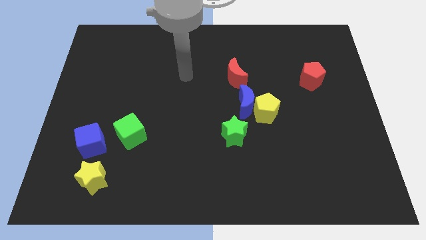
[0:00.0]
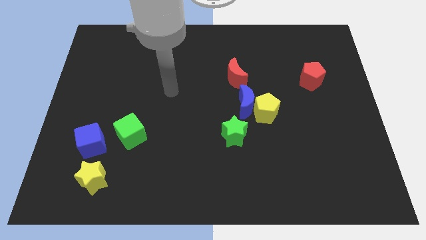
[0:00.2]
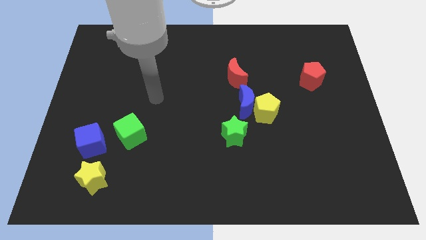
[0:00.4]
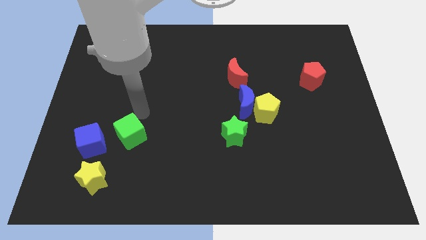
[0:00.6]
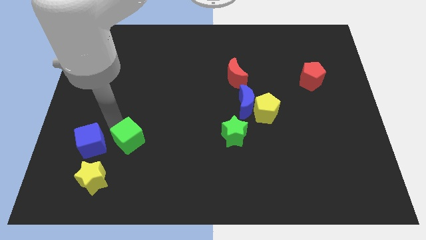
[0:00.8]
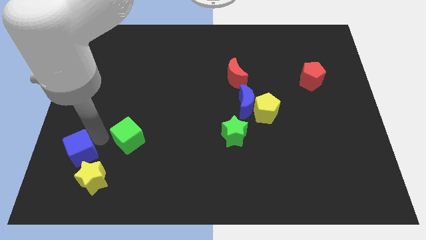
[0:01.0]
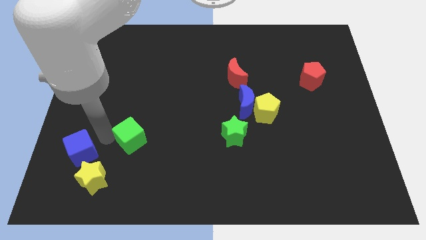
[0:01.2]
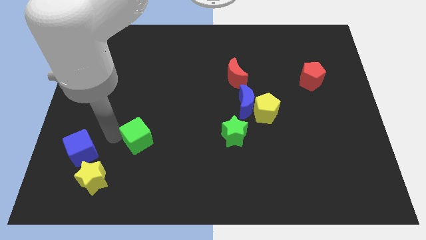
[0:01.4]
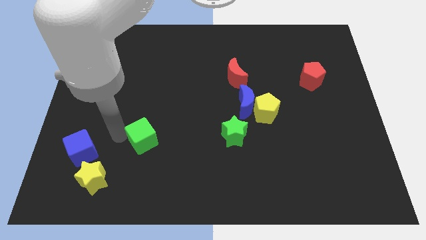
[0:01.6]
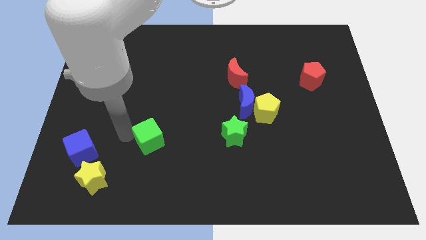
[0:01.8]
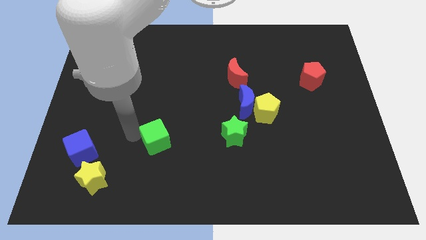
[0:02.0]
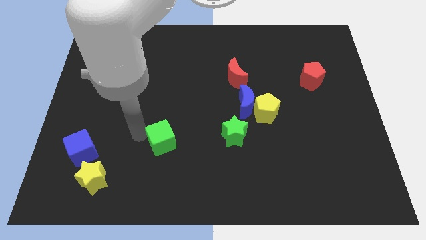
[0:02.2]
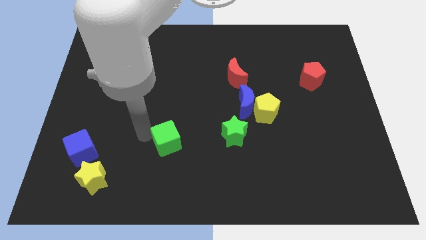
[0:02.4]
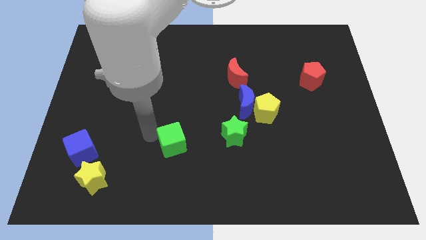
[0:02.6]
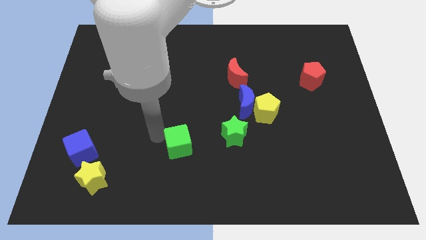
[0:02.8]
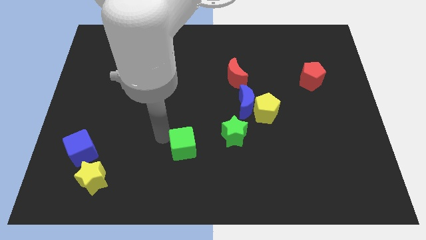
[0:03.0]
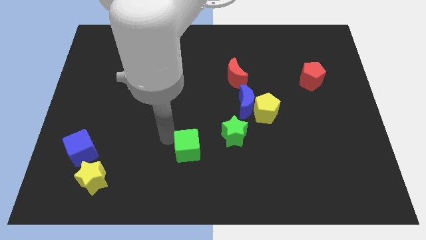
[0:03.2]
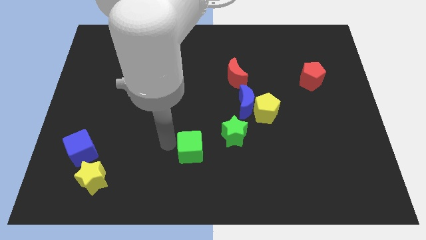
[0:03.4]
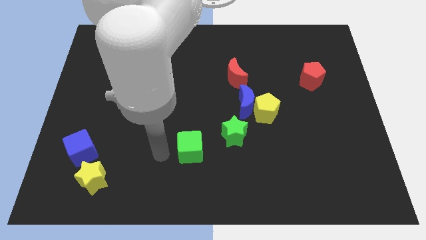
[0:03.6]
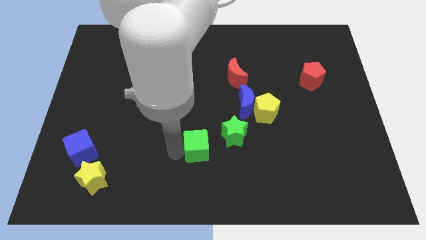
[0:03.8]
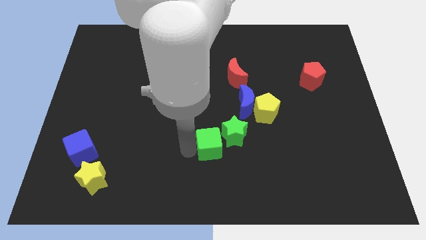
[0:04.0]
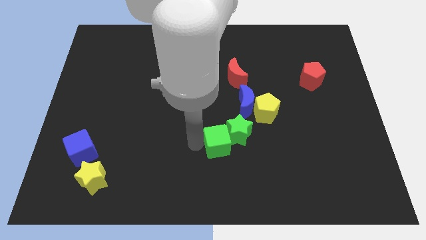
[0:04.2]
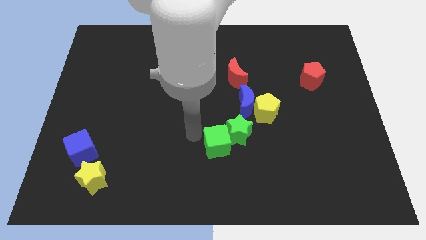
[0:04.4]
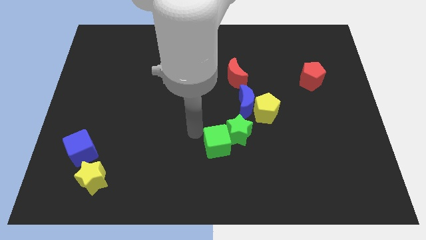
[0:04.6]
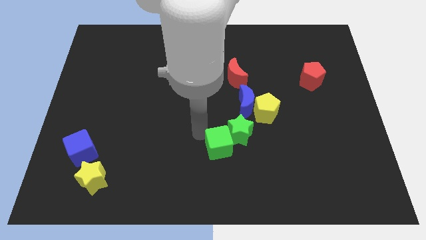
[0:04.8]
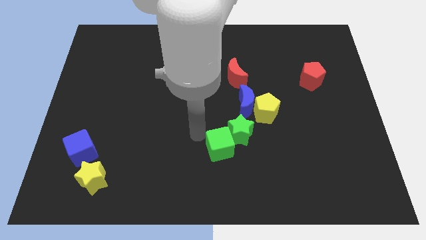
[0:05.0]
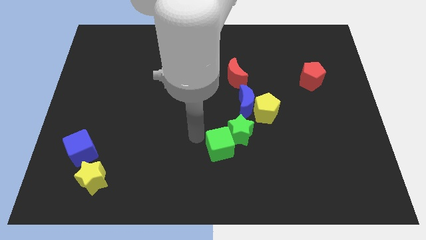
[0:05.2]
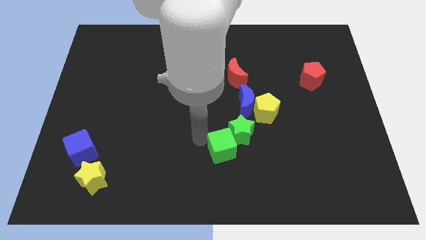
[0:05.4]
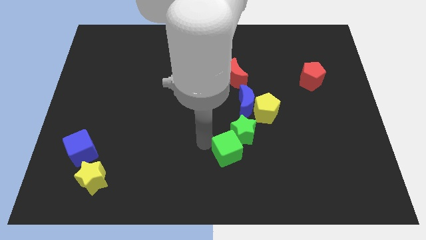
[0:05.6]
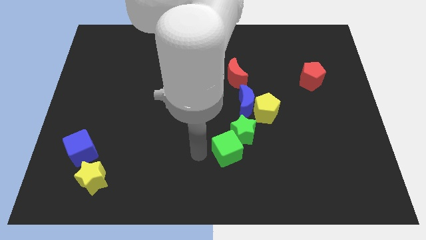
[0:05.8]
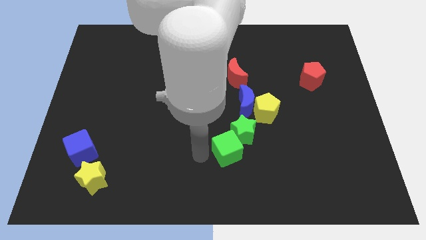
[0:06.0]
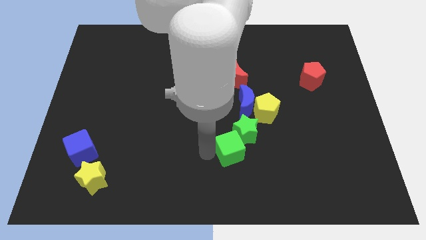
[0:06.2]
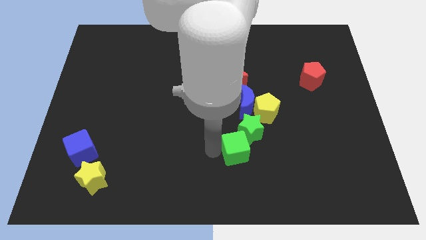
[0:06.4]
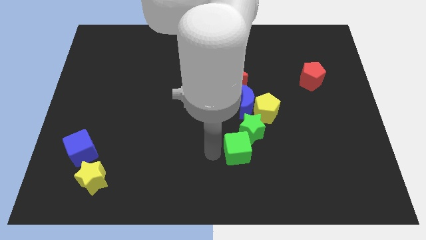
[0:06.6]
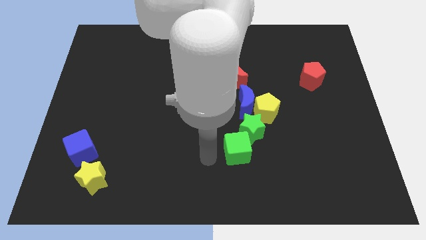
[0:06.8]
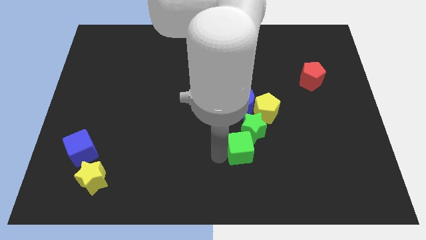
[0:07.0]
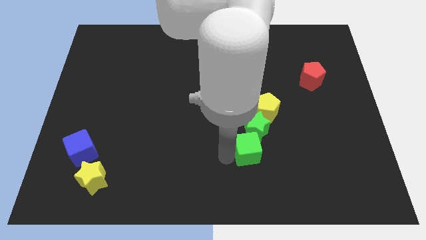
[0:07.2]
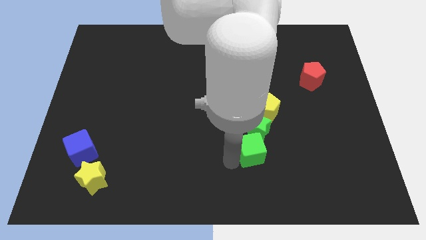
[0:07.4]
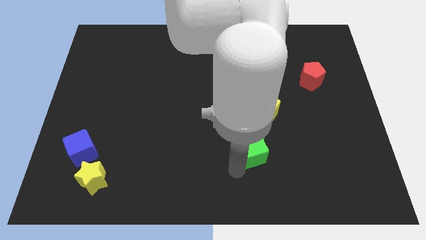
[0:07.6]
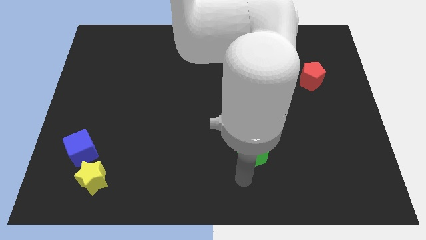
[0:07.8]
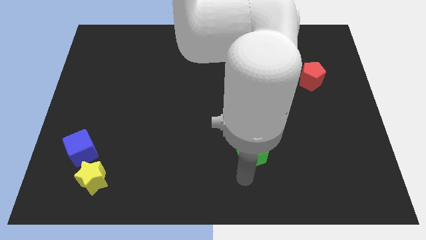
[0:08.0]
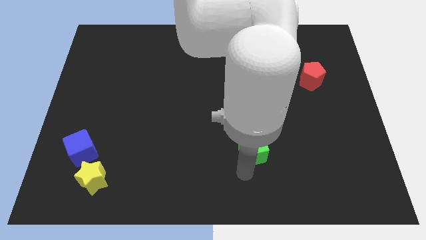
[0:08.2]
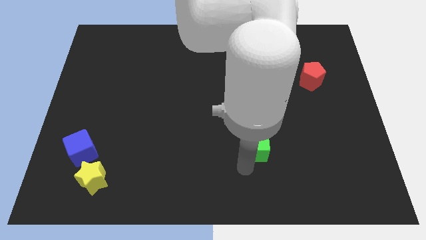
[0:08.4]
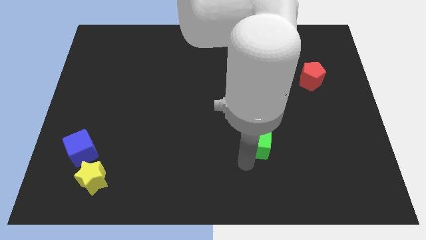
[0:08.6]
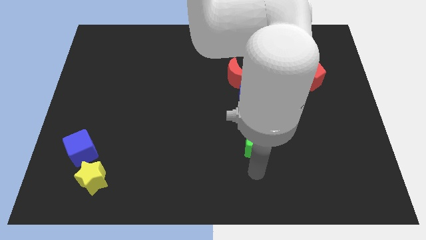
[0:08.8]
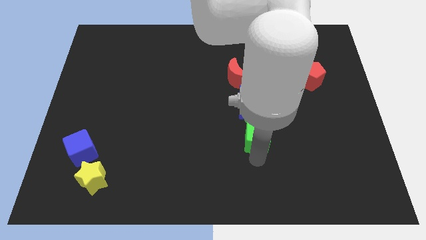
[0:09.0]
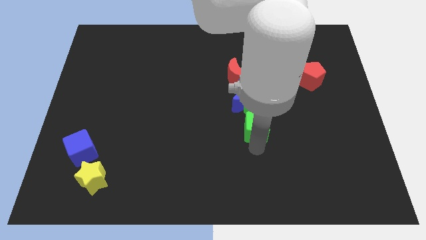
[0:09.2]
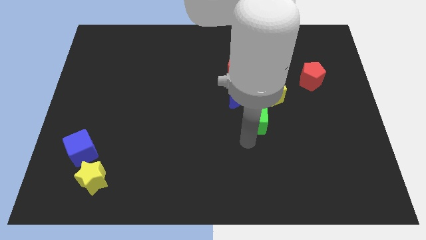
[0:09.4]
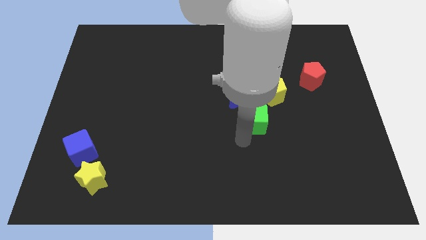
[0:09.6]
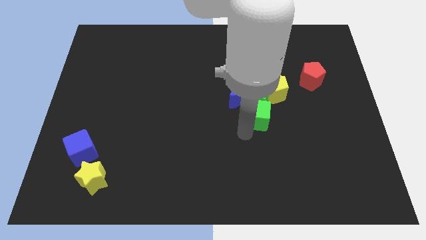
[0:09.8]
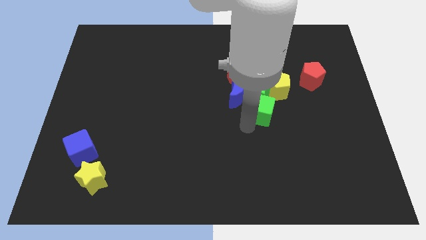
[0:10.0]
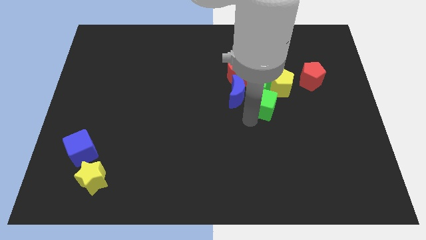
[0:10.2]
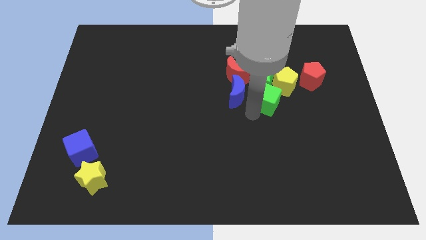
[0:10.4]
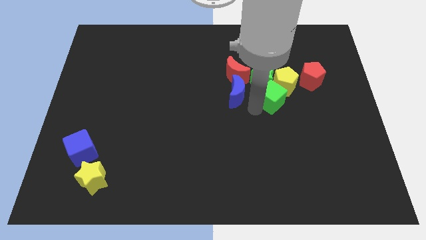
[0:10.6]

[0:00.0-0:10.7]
push the green cube close to the yellow pentagon

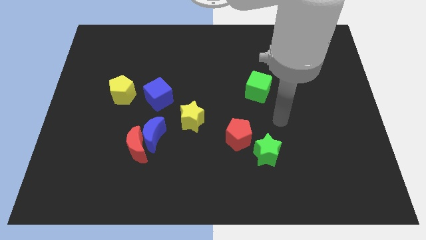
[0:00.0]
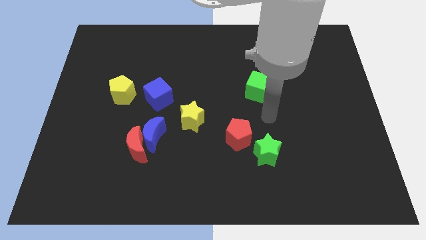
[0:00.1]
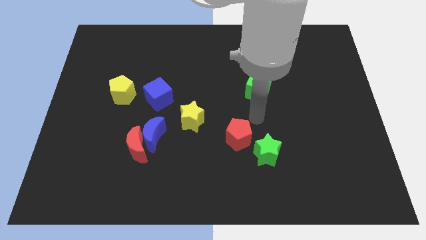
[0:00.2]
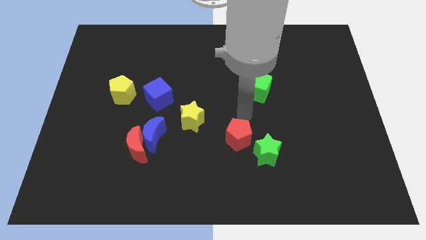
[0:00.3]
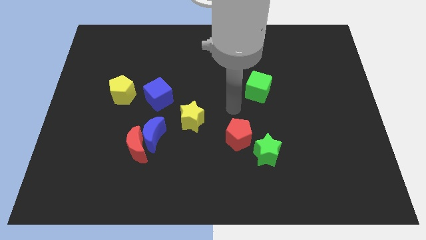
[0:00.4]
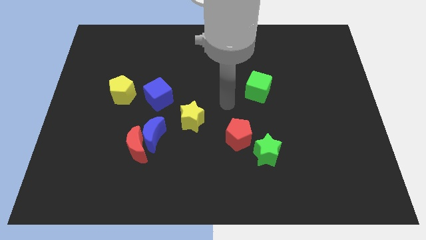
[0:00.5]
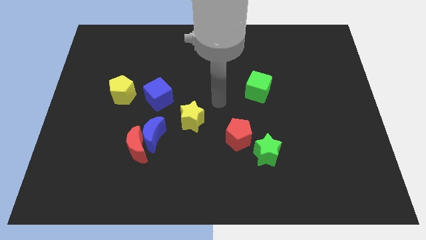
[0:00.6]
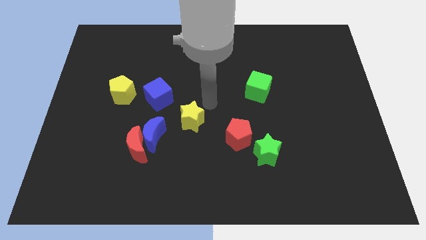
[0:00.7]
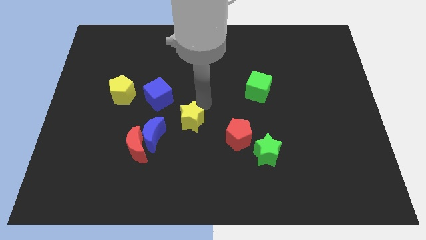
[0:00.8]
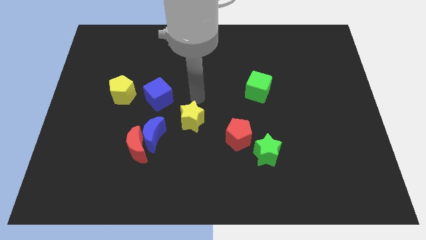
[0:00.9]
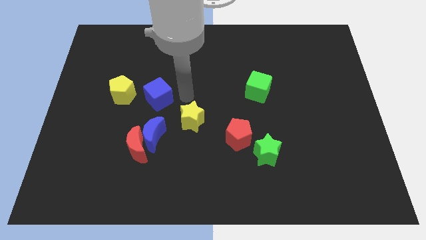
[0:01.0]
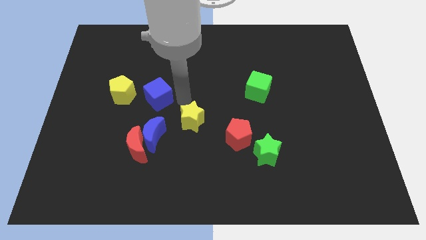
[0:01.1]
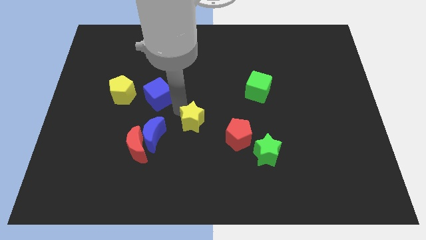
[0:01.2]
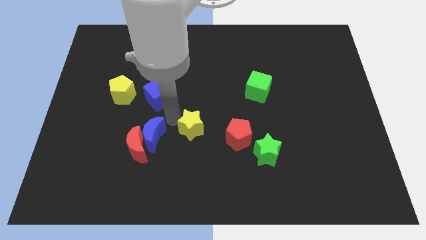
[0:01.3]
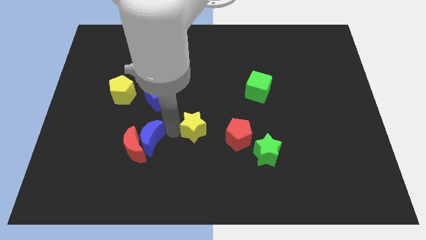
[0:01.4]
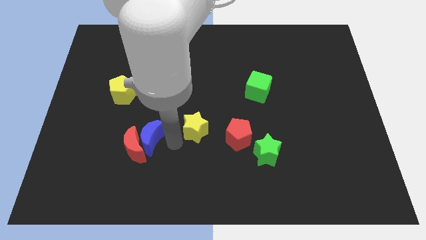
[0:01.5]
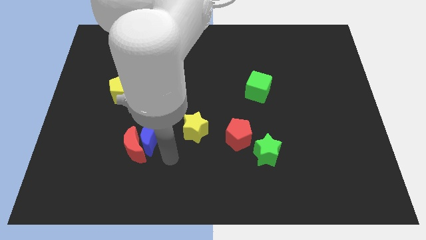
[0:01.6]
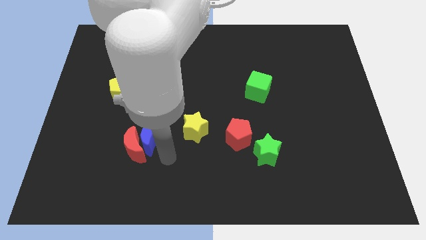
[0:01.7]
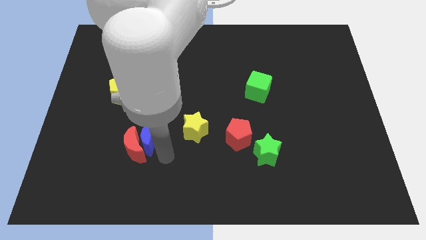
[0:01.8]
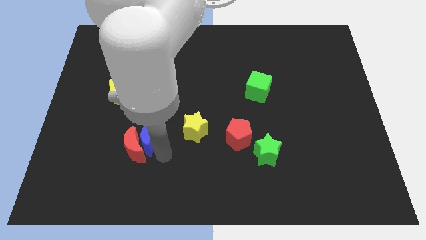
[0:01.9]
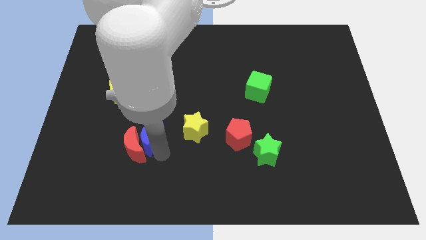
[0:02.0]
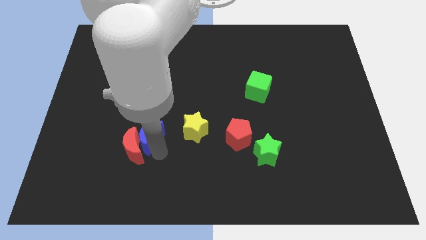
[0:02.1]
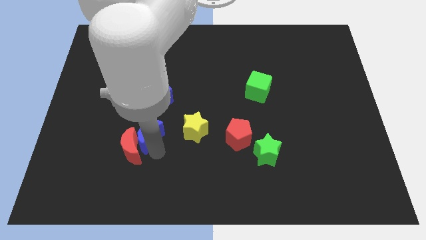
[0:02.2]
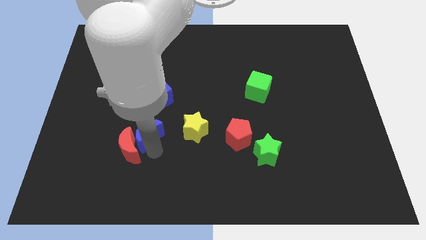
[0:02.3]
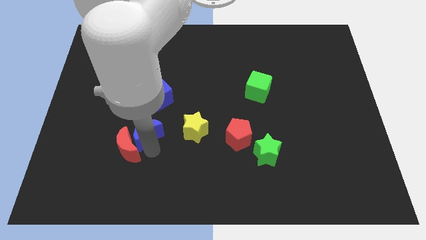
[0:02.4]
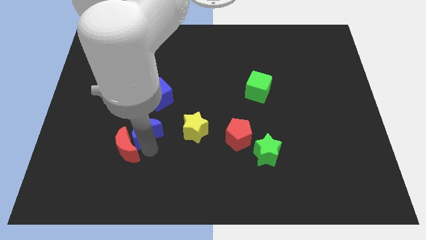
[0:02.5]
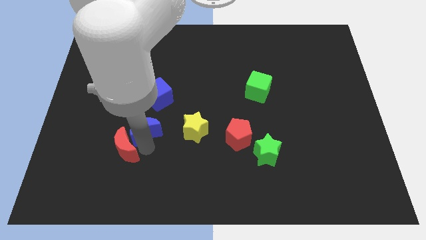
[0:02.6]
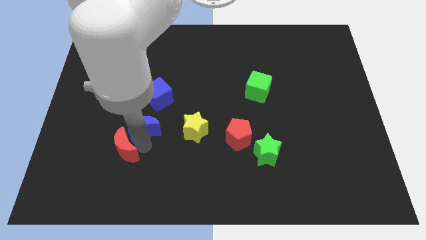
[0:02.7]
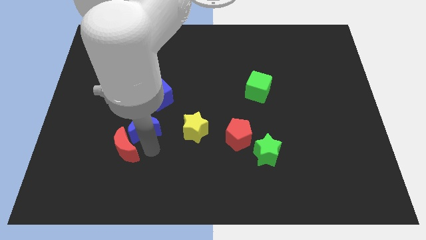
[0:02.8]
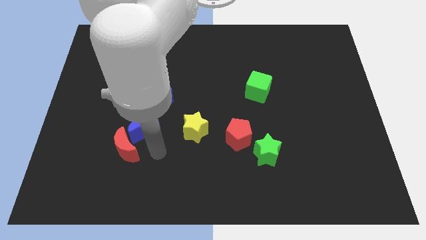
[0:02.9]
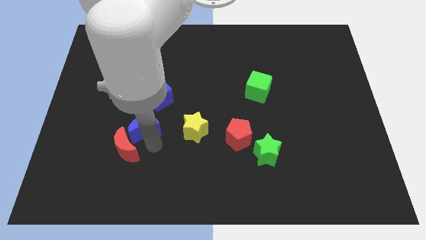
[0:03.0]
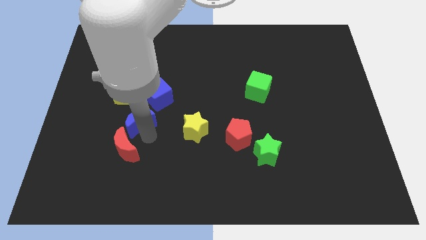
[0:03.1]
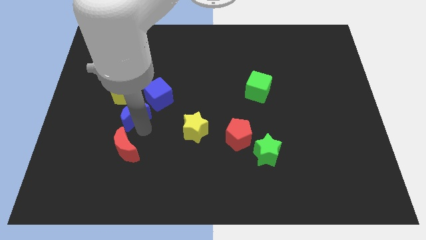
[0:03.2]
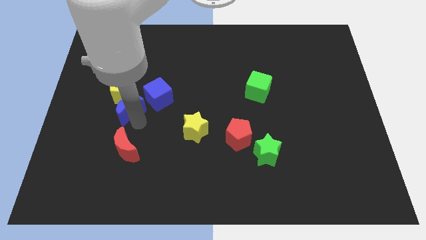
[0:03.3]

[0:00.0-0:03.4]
slide the blue moon to the yellow pentagon
